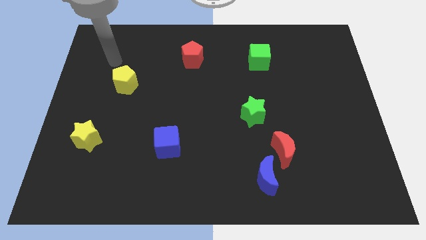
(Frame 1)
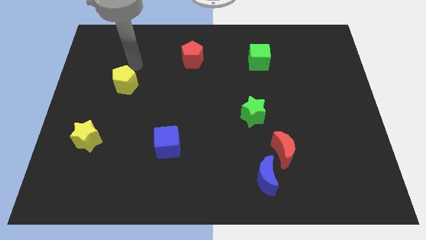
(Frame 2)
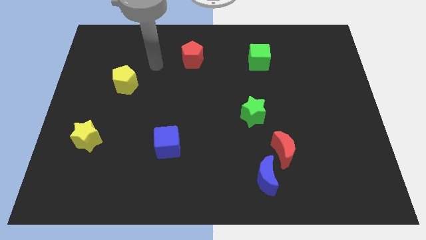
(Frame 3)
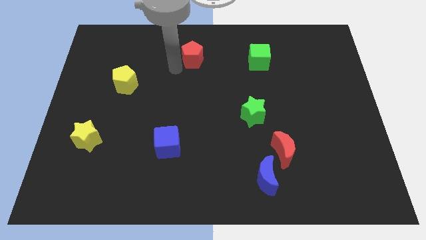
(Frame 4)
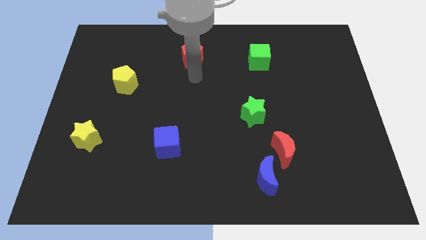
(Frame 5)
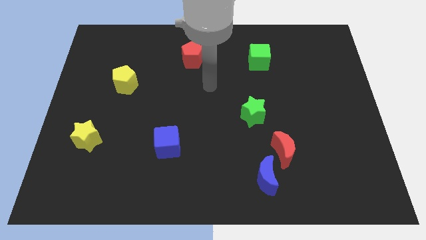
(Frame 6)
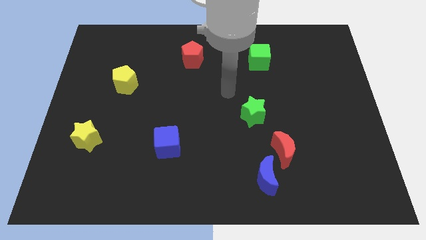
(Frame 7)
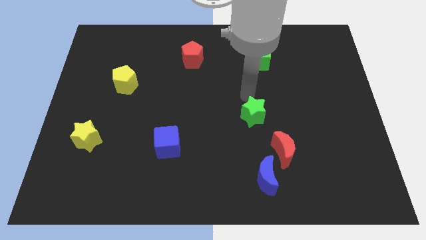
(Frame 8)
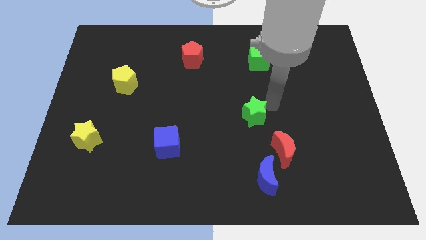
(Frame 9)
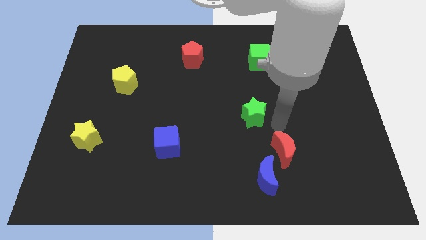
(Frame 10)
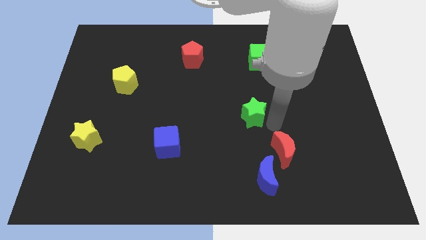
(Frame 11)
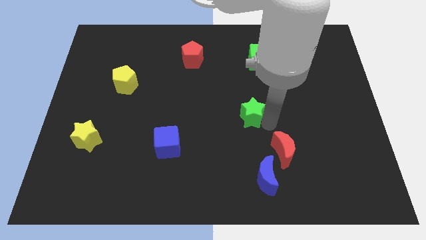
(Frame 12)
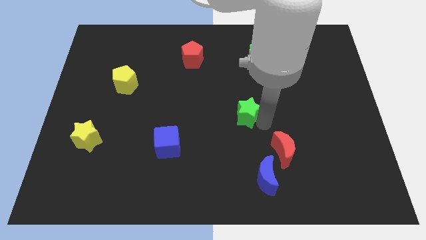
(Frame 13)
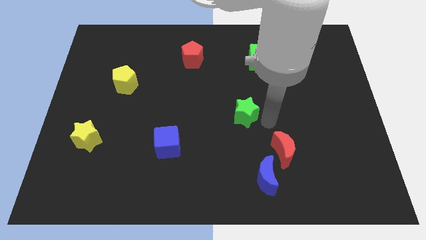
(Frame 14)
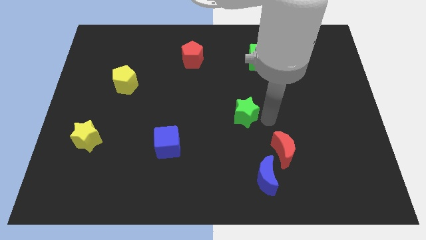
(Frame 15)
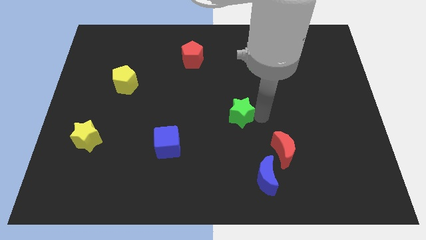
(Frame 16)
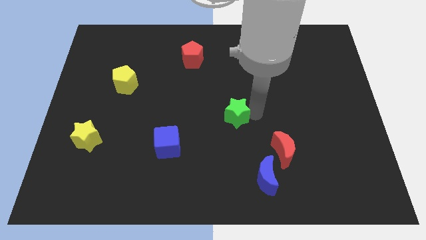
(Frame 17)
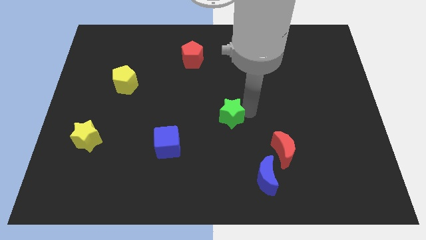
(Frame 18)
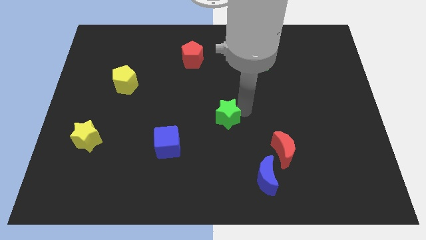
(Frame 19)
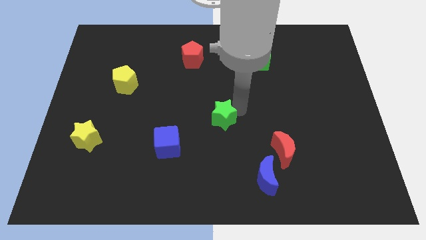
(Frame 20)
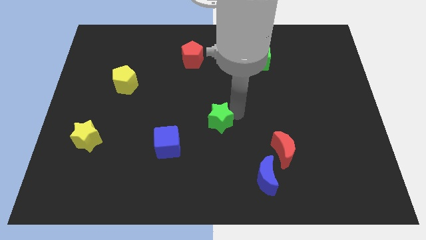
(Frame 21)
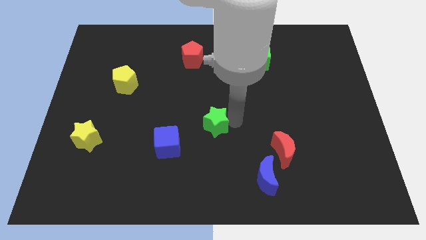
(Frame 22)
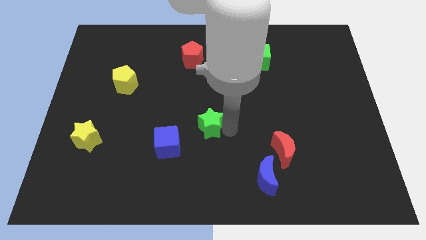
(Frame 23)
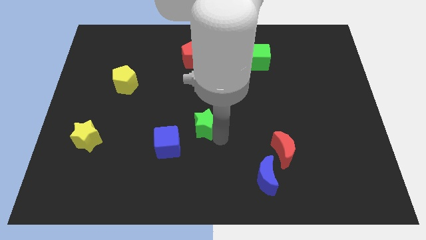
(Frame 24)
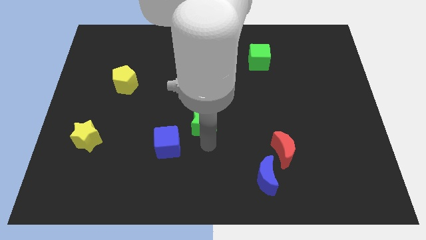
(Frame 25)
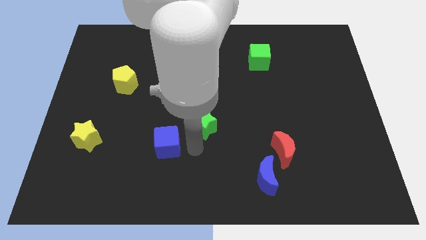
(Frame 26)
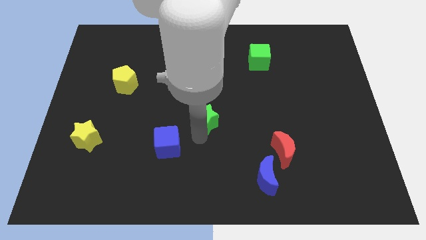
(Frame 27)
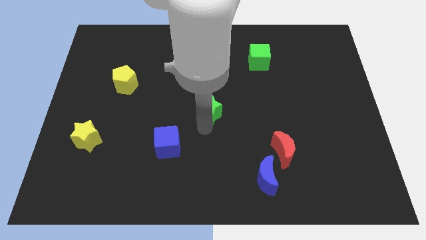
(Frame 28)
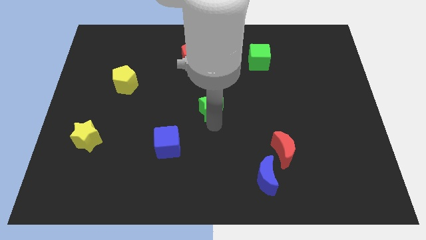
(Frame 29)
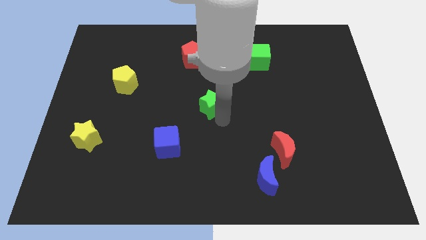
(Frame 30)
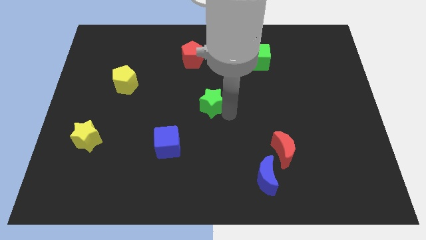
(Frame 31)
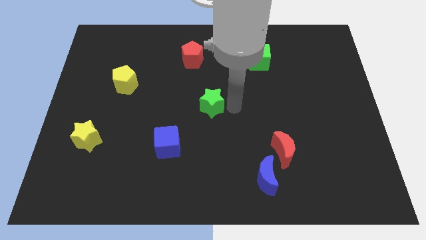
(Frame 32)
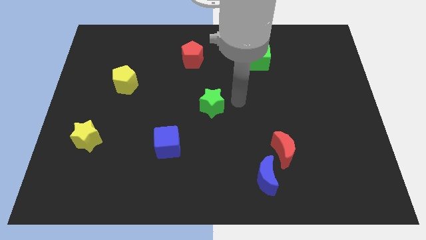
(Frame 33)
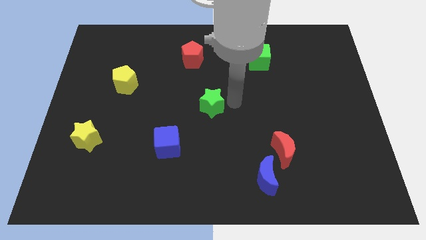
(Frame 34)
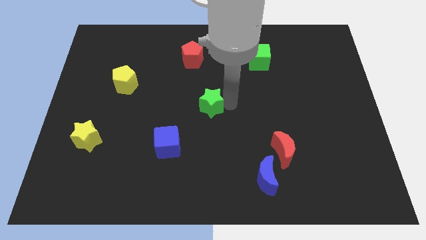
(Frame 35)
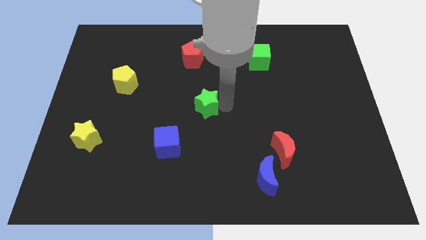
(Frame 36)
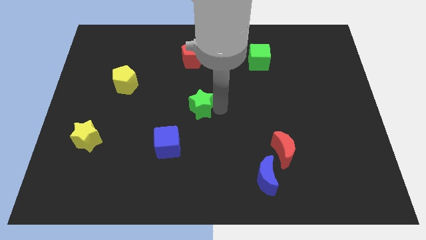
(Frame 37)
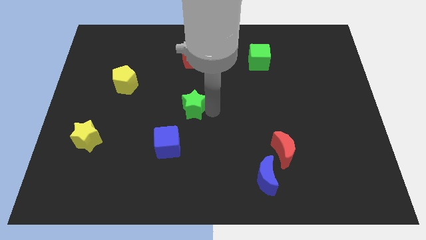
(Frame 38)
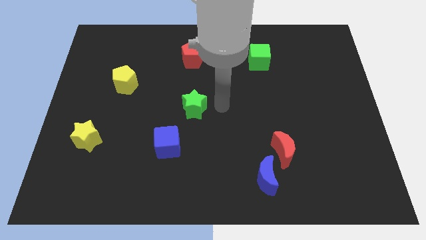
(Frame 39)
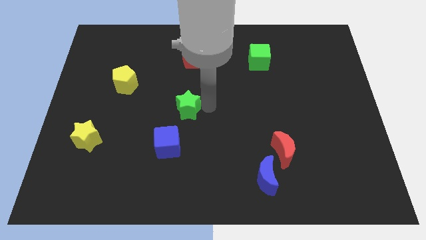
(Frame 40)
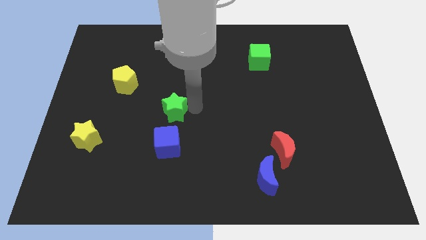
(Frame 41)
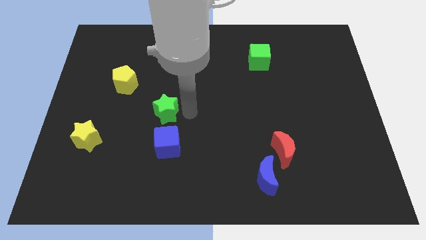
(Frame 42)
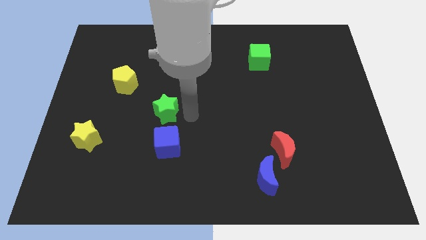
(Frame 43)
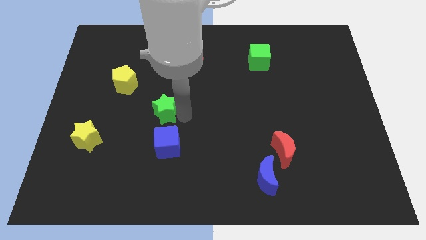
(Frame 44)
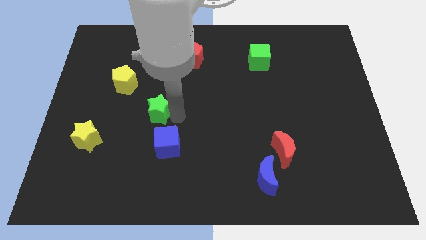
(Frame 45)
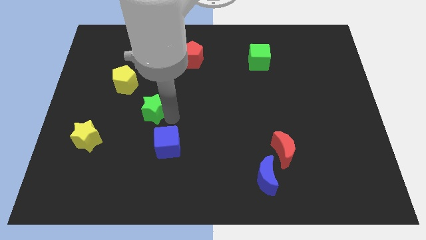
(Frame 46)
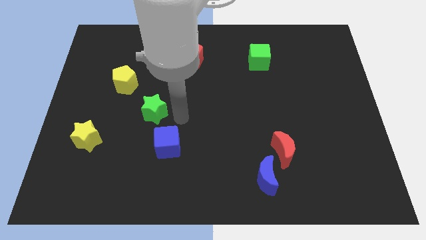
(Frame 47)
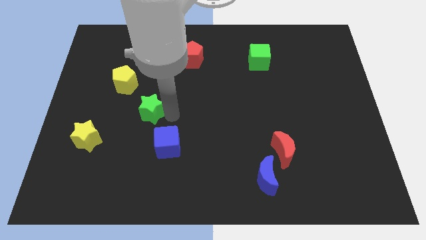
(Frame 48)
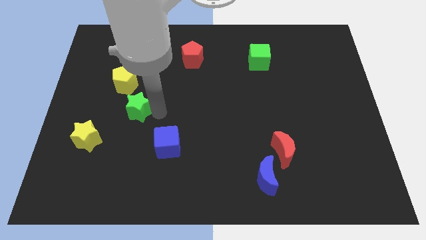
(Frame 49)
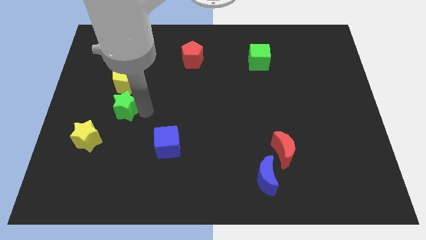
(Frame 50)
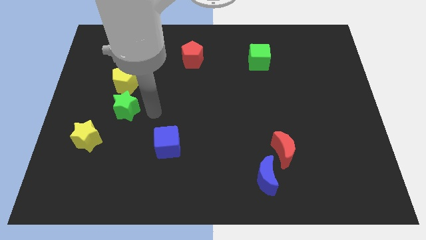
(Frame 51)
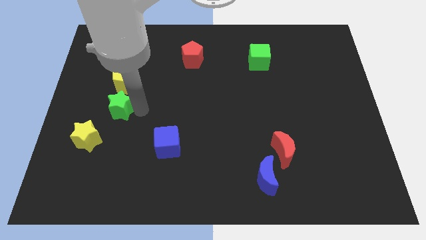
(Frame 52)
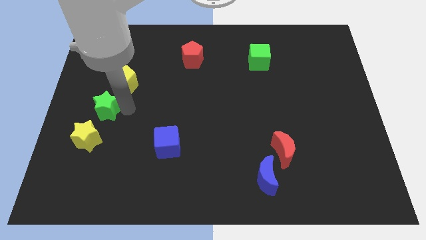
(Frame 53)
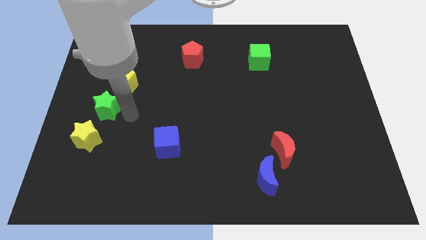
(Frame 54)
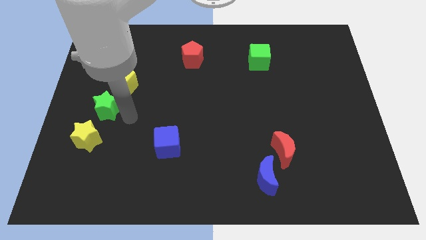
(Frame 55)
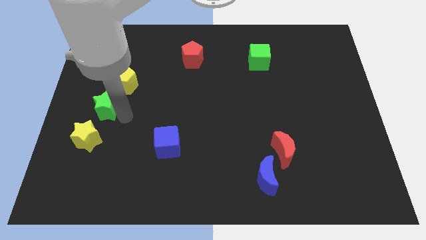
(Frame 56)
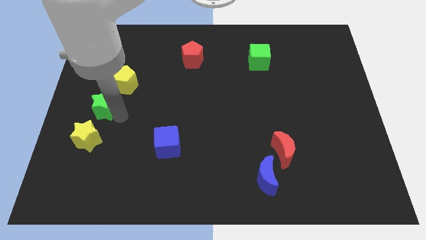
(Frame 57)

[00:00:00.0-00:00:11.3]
slide the green star to the left side

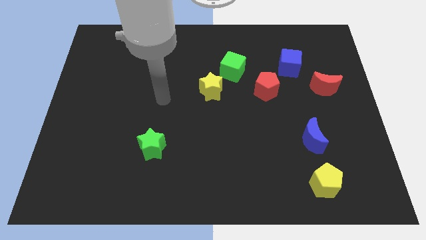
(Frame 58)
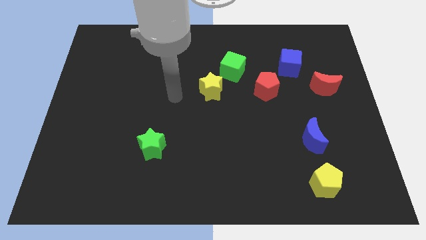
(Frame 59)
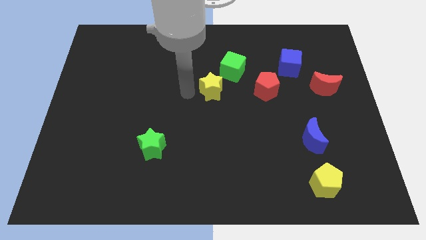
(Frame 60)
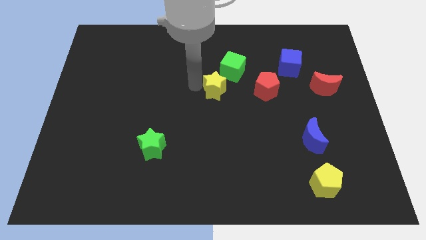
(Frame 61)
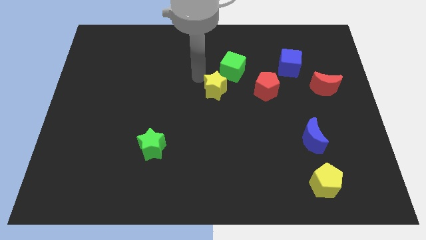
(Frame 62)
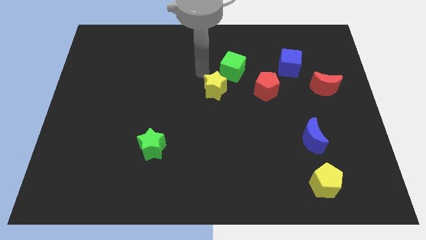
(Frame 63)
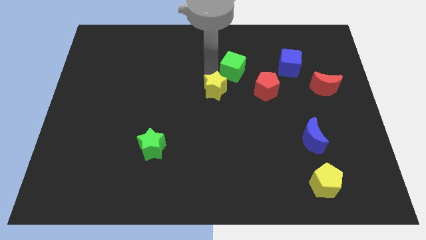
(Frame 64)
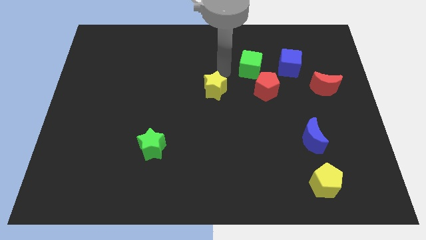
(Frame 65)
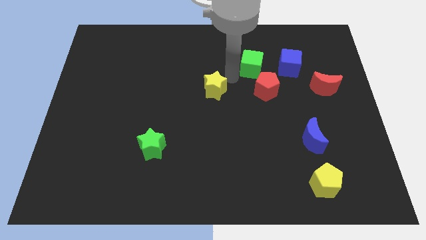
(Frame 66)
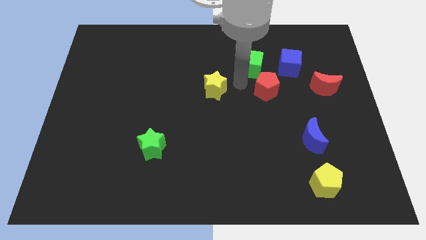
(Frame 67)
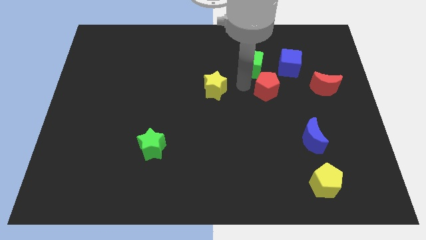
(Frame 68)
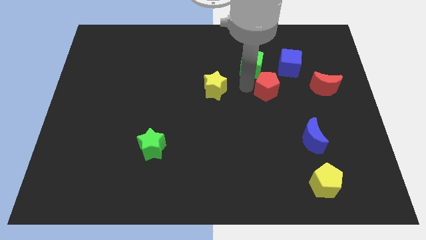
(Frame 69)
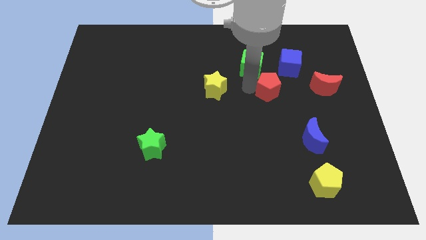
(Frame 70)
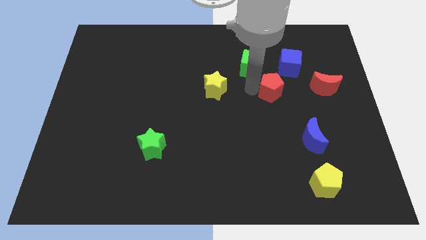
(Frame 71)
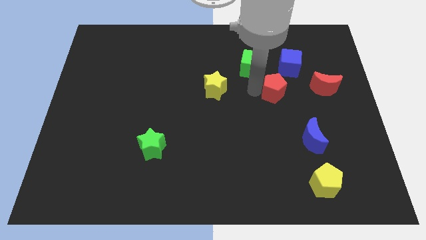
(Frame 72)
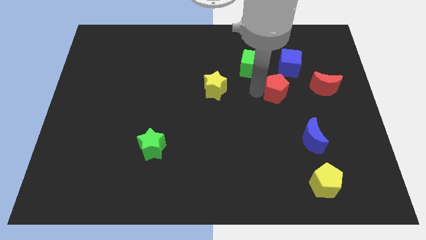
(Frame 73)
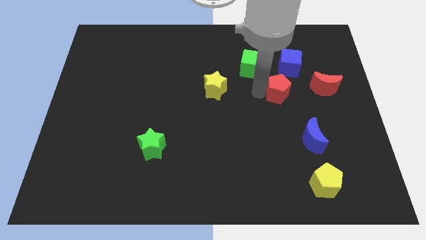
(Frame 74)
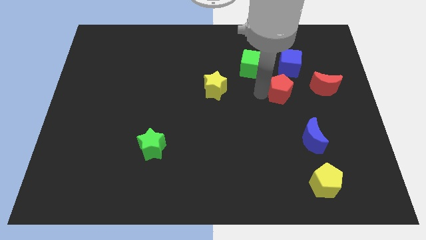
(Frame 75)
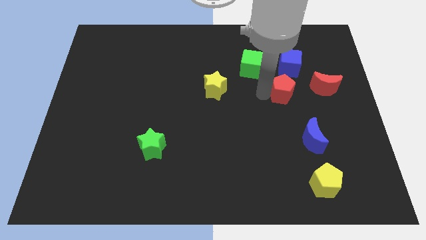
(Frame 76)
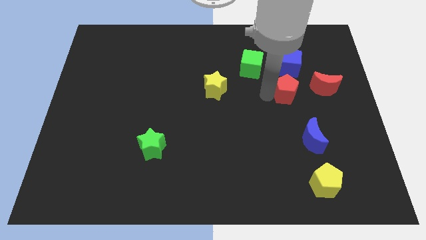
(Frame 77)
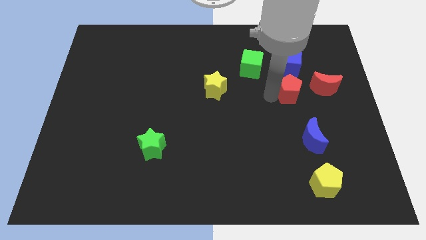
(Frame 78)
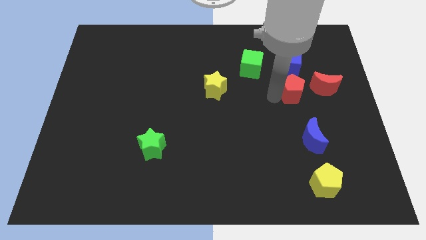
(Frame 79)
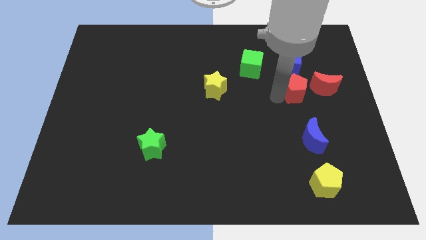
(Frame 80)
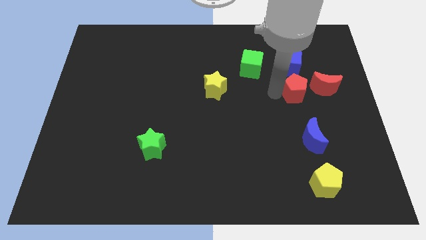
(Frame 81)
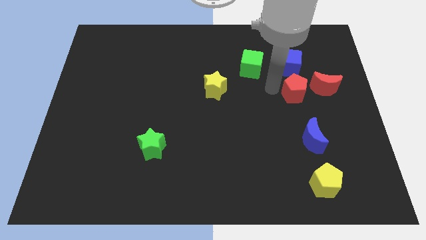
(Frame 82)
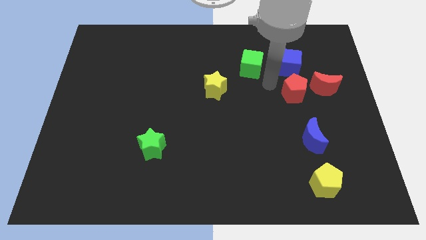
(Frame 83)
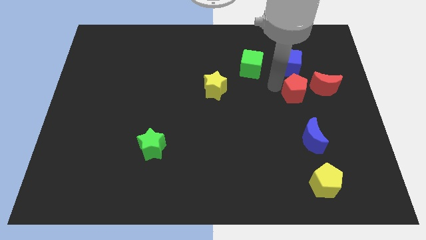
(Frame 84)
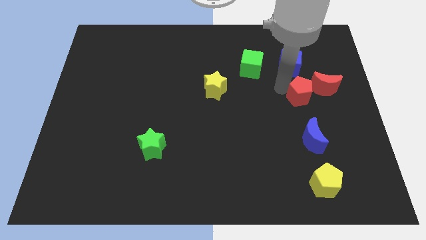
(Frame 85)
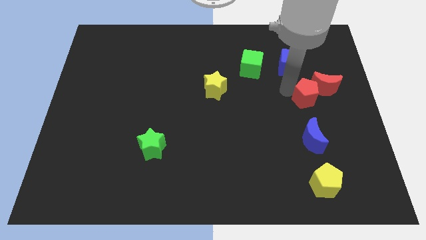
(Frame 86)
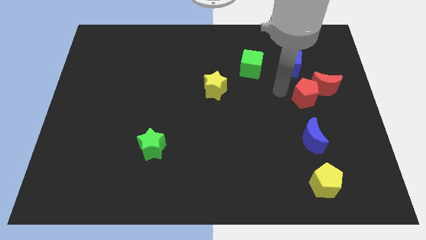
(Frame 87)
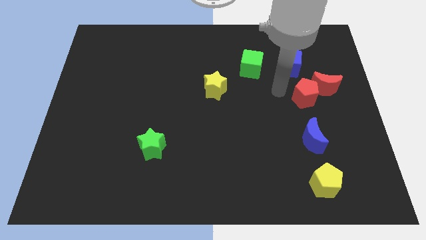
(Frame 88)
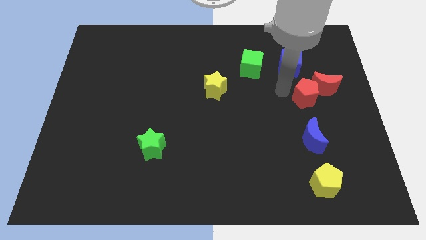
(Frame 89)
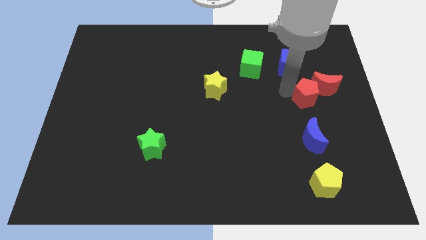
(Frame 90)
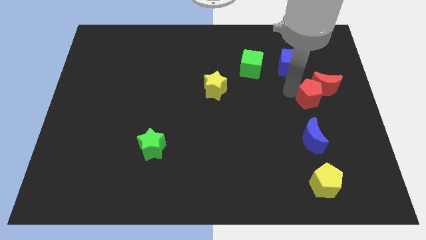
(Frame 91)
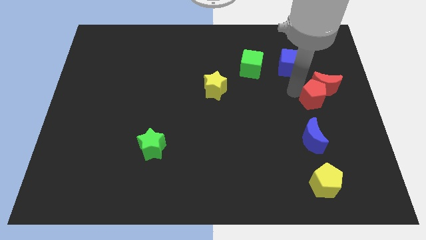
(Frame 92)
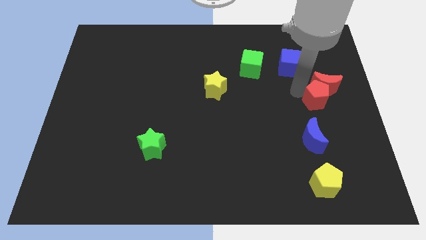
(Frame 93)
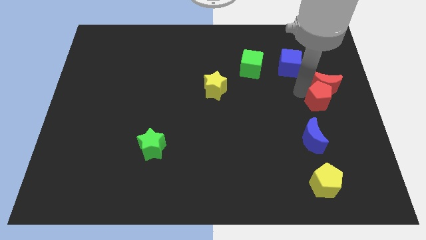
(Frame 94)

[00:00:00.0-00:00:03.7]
push the red pentagon to the right side of the board
